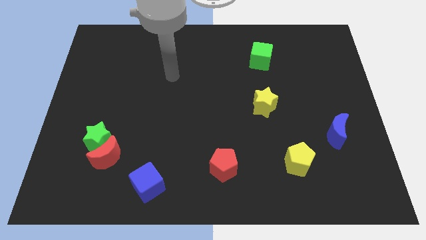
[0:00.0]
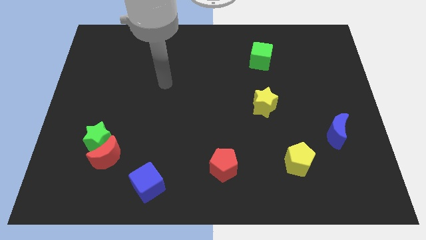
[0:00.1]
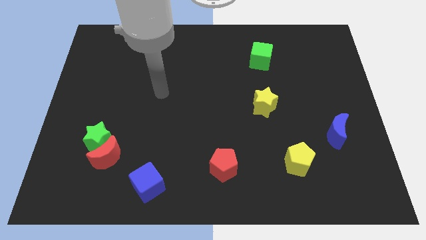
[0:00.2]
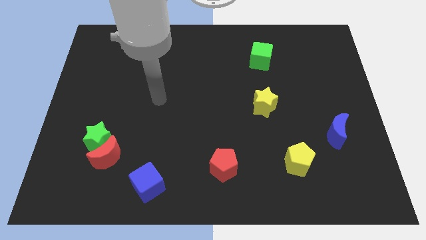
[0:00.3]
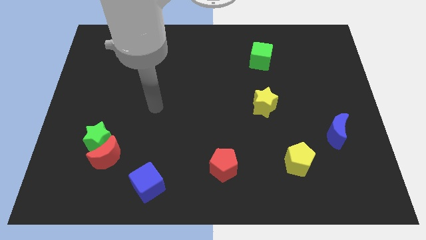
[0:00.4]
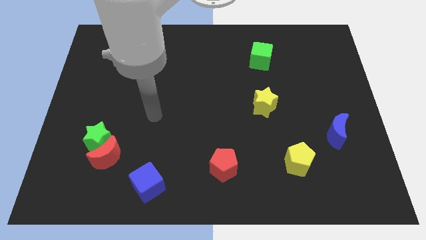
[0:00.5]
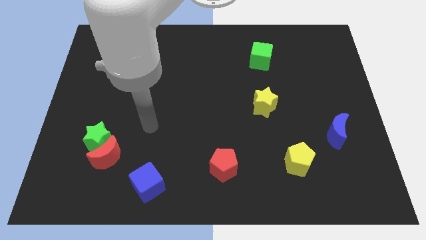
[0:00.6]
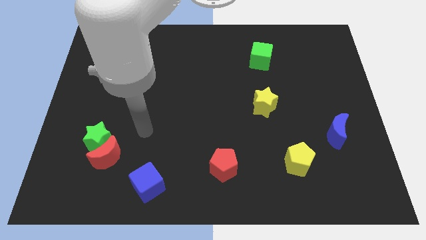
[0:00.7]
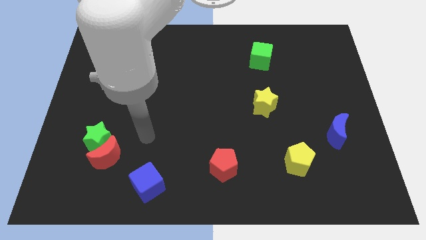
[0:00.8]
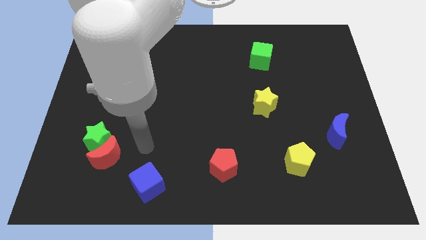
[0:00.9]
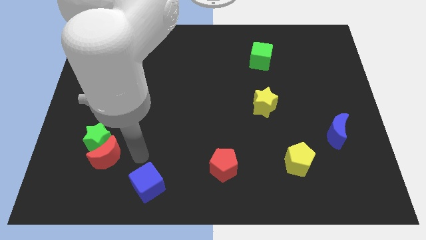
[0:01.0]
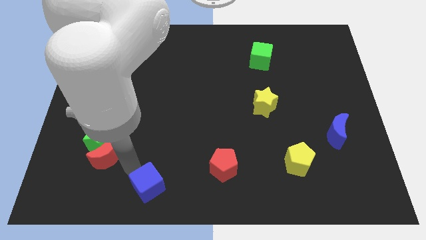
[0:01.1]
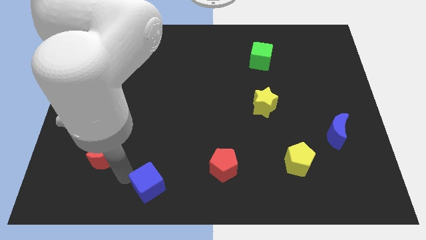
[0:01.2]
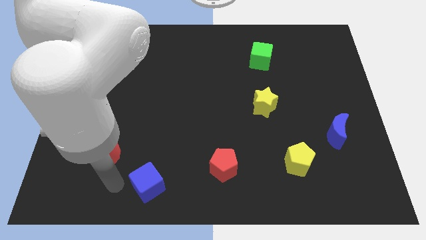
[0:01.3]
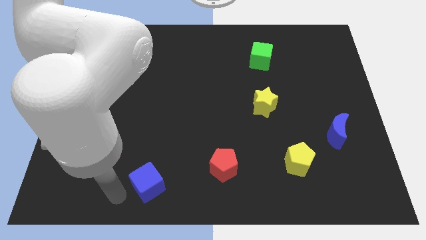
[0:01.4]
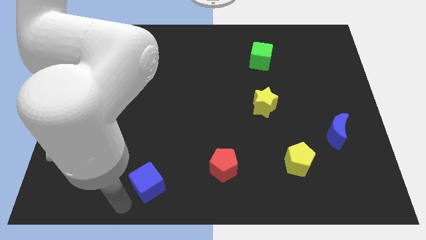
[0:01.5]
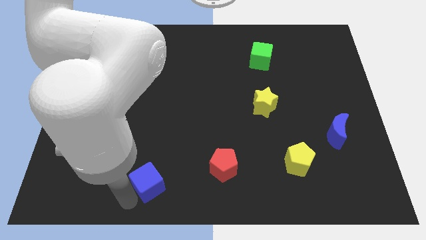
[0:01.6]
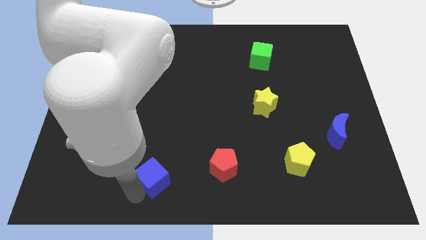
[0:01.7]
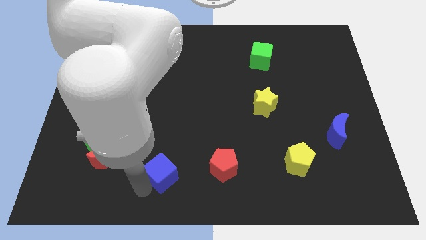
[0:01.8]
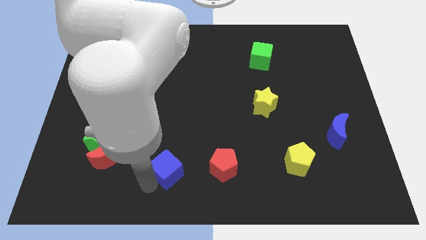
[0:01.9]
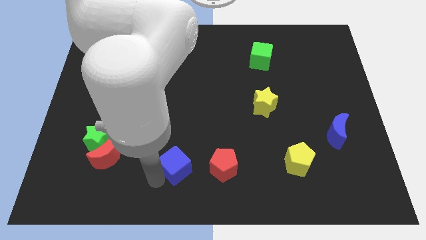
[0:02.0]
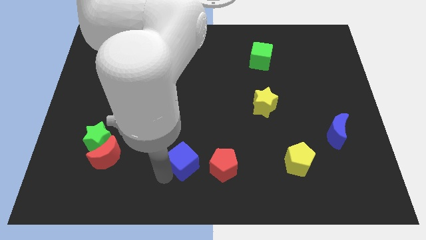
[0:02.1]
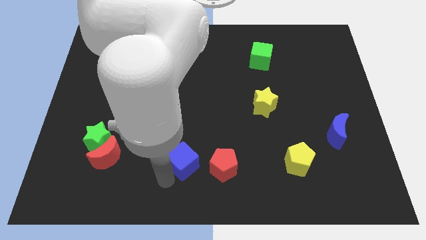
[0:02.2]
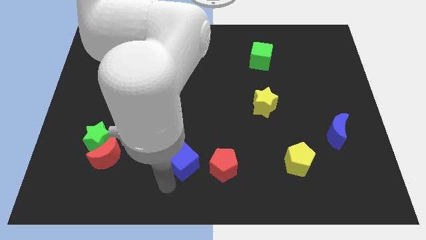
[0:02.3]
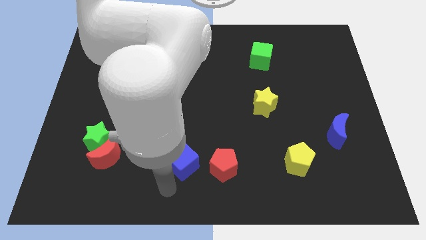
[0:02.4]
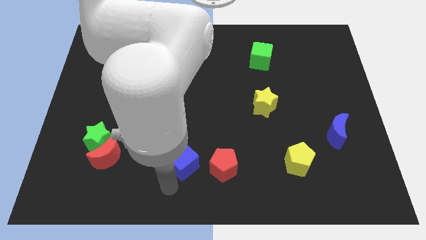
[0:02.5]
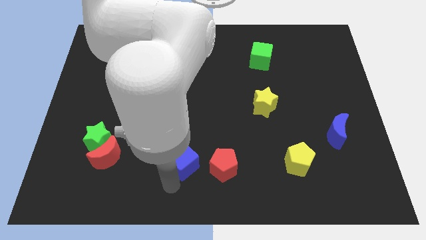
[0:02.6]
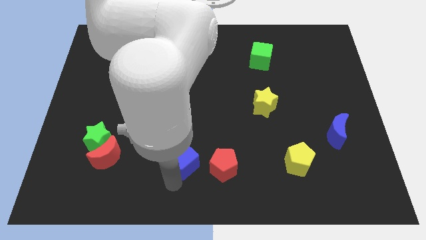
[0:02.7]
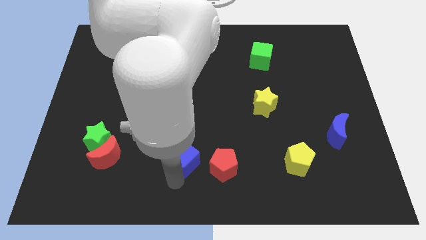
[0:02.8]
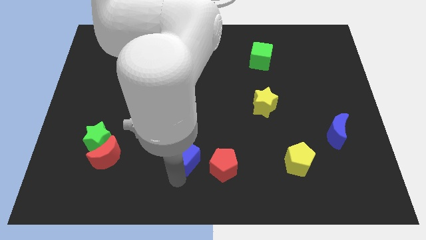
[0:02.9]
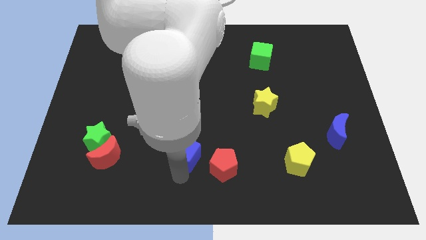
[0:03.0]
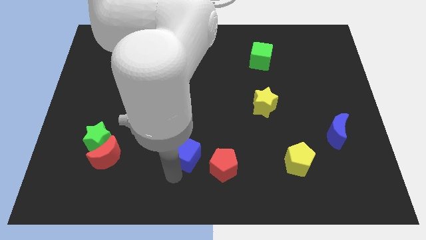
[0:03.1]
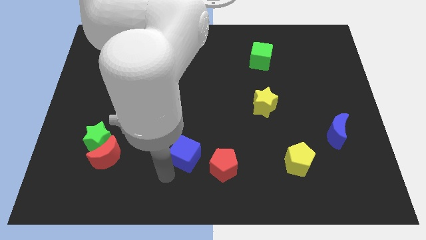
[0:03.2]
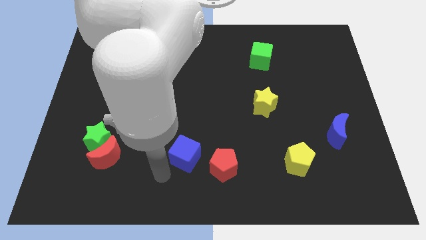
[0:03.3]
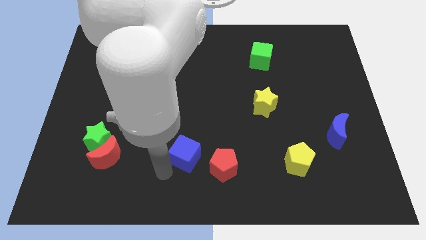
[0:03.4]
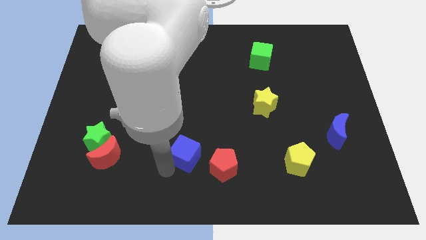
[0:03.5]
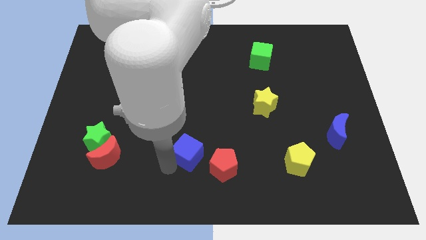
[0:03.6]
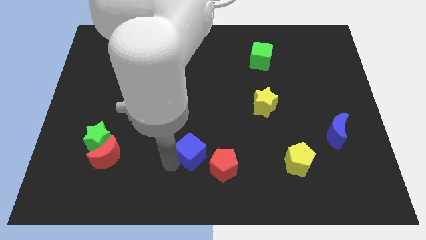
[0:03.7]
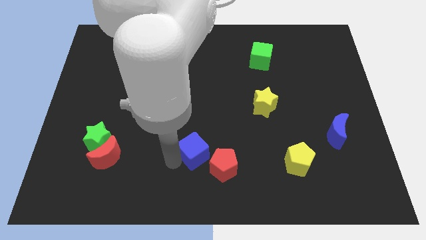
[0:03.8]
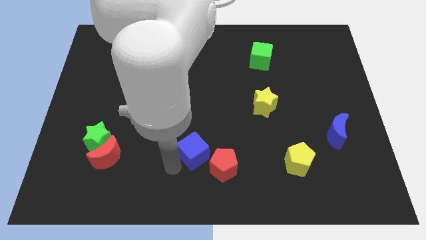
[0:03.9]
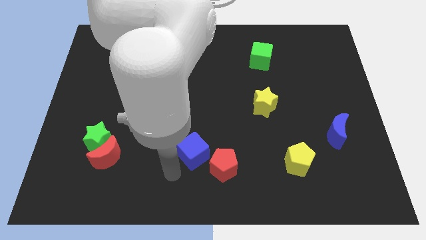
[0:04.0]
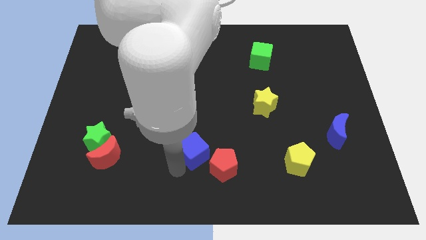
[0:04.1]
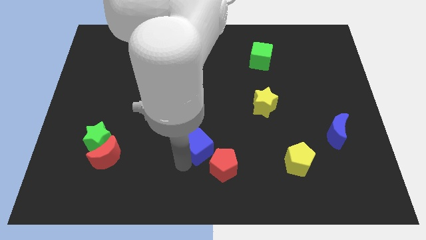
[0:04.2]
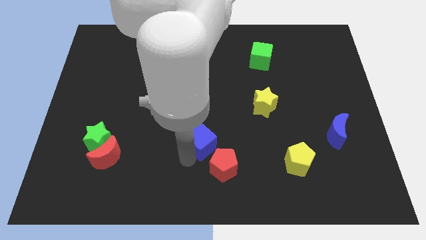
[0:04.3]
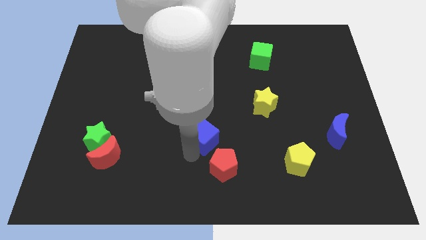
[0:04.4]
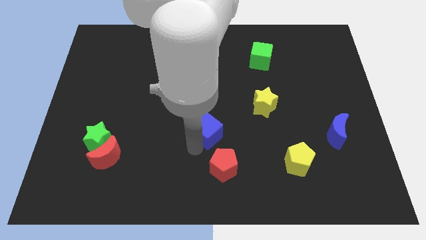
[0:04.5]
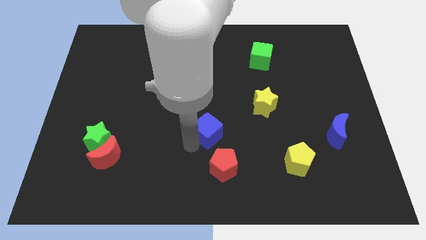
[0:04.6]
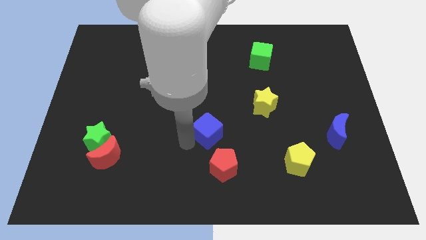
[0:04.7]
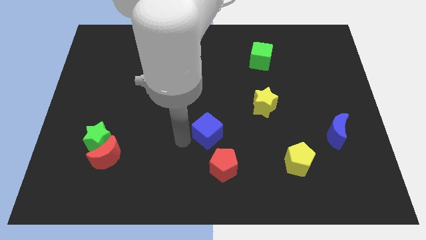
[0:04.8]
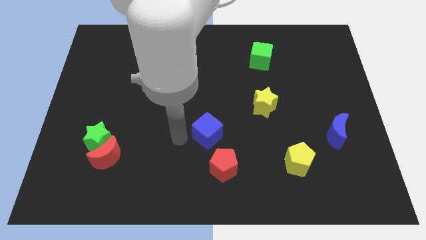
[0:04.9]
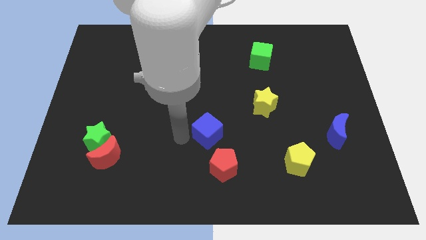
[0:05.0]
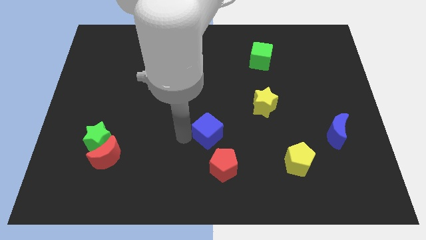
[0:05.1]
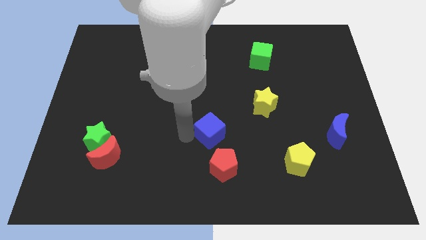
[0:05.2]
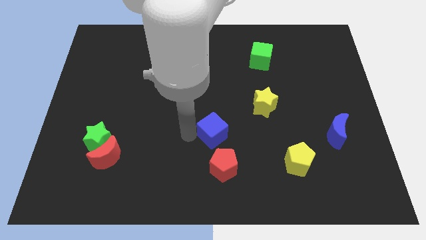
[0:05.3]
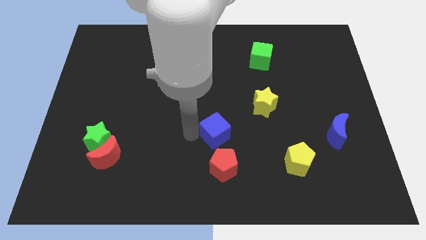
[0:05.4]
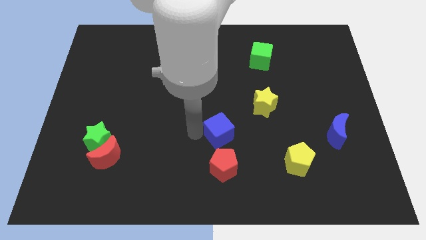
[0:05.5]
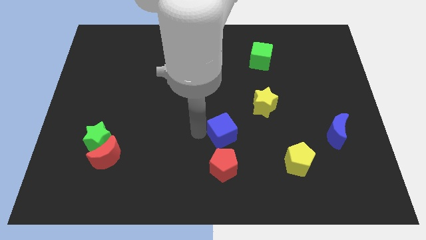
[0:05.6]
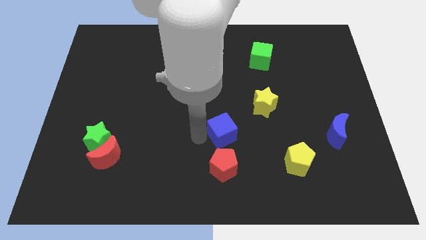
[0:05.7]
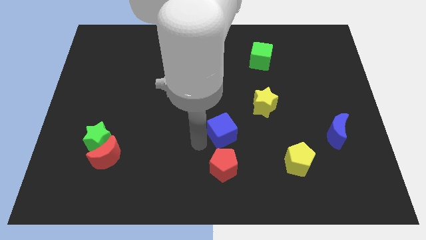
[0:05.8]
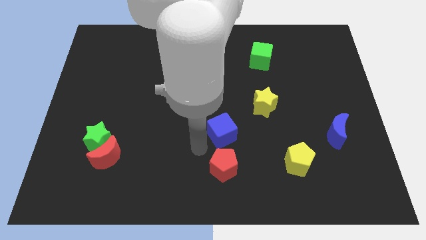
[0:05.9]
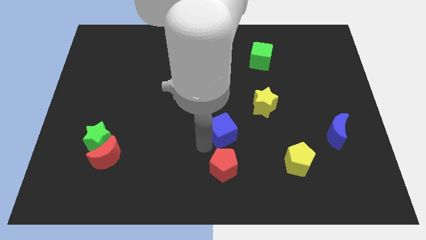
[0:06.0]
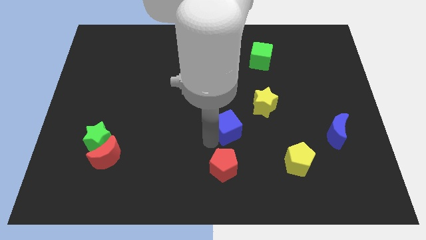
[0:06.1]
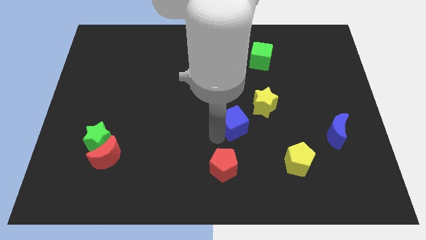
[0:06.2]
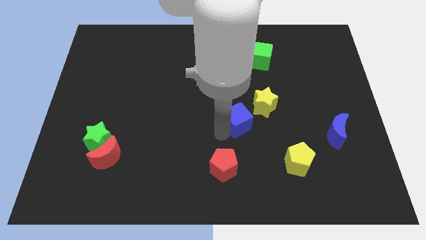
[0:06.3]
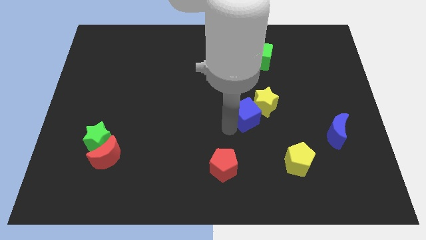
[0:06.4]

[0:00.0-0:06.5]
put the blue cube close to the yellow star

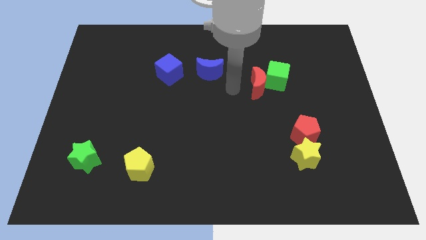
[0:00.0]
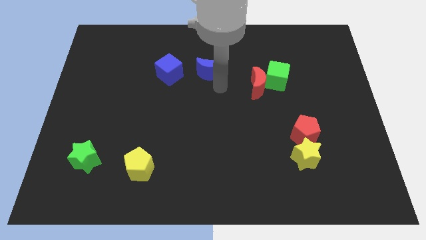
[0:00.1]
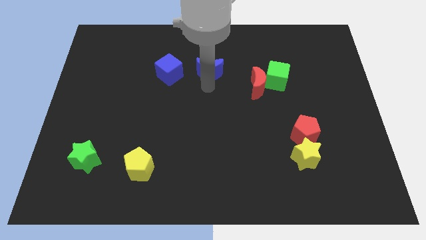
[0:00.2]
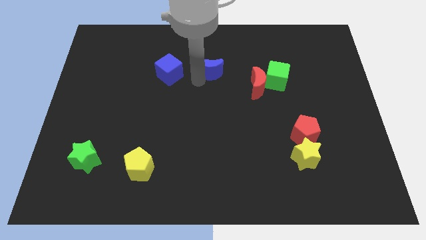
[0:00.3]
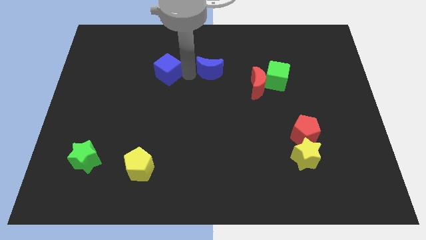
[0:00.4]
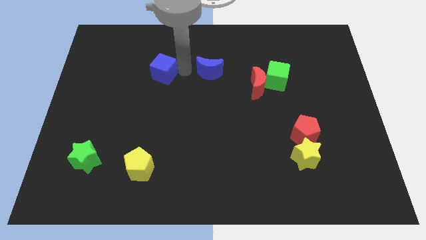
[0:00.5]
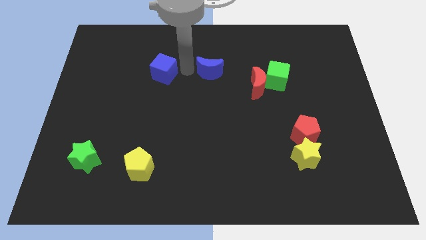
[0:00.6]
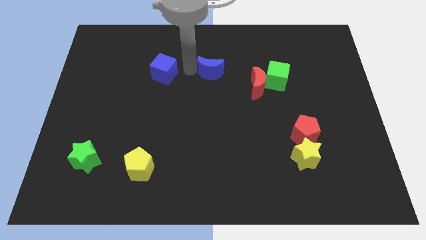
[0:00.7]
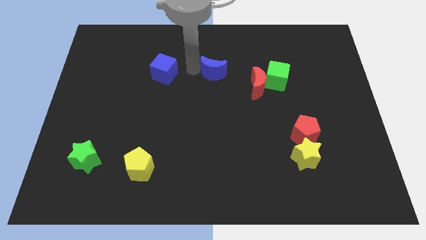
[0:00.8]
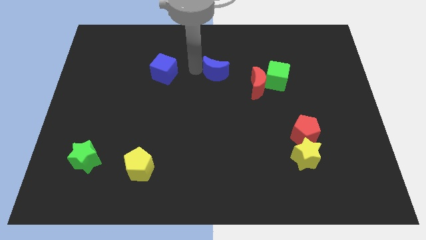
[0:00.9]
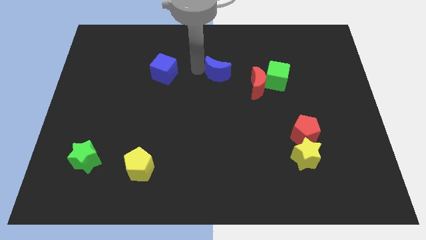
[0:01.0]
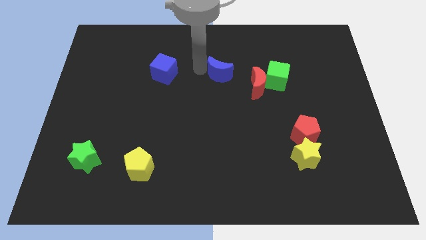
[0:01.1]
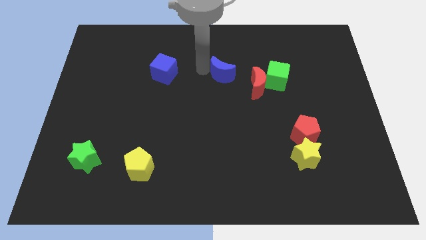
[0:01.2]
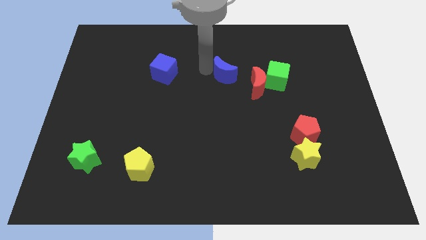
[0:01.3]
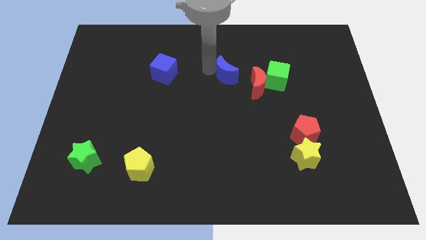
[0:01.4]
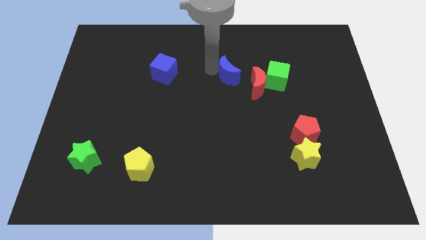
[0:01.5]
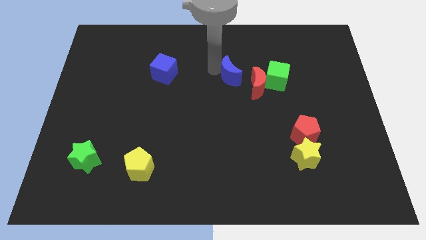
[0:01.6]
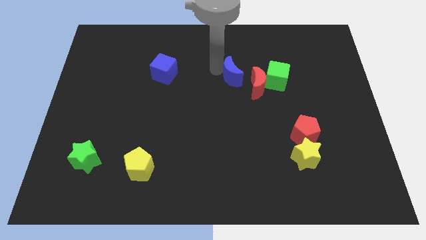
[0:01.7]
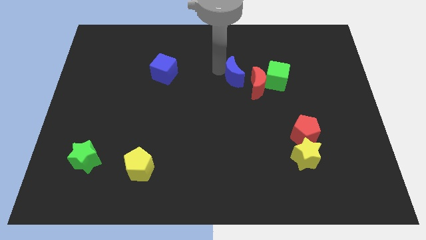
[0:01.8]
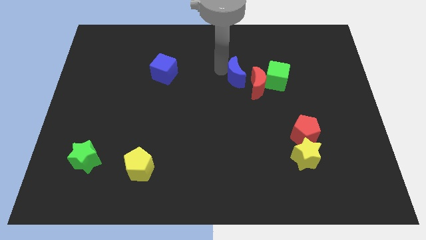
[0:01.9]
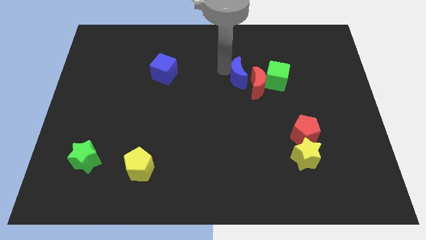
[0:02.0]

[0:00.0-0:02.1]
put the blue moon to the red moon
